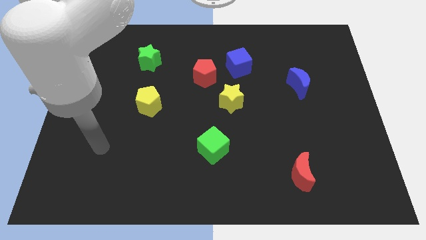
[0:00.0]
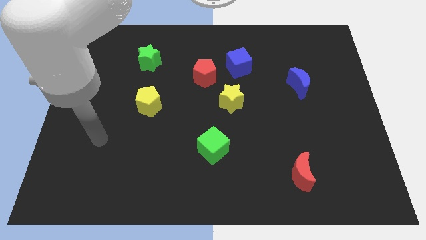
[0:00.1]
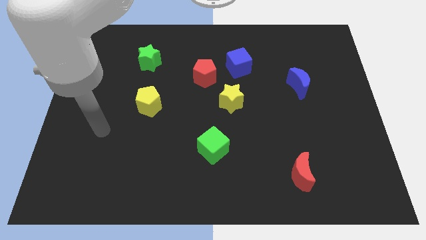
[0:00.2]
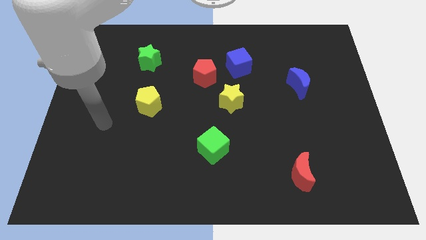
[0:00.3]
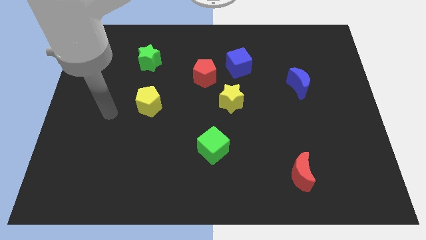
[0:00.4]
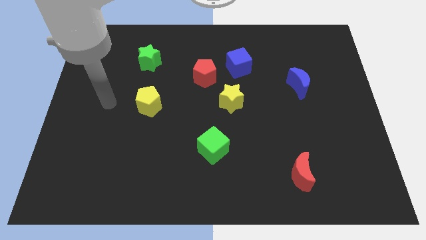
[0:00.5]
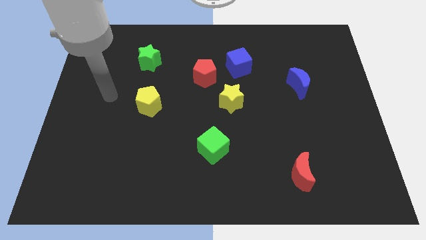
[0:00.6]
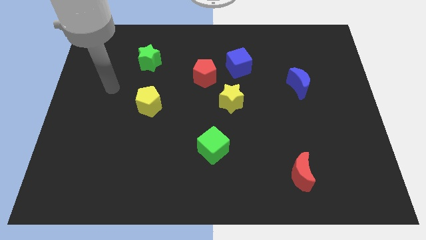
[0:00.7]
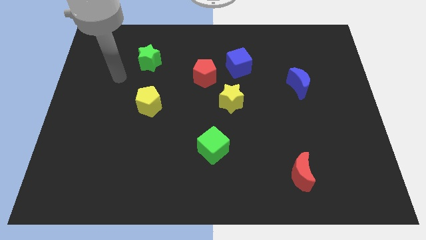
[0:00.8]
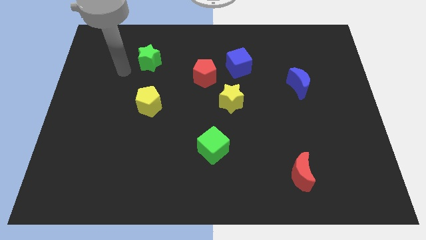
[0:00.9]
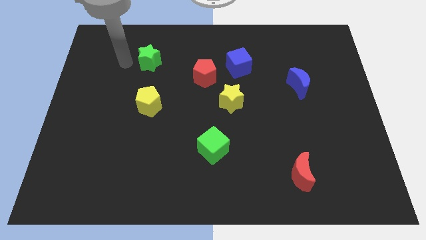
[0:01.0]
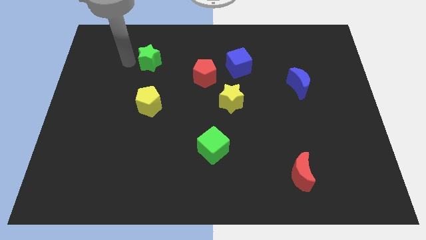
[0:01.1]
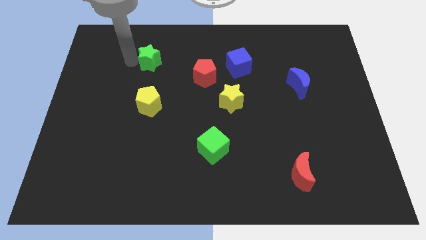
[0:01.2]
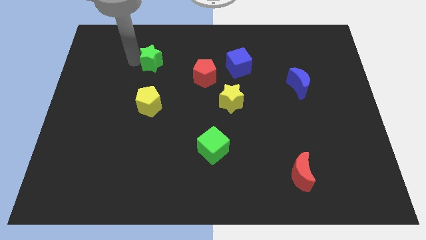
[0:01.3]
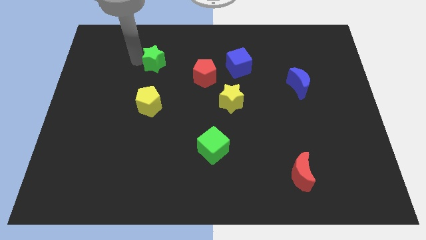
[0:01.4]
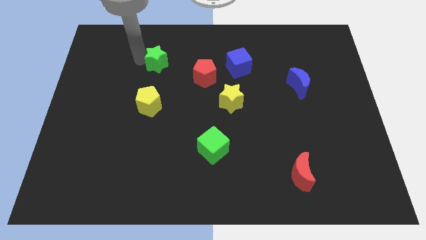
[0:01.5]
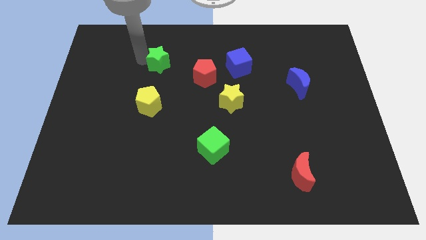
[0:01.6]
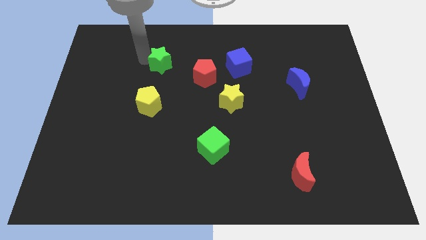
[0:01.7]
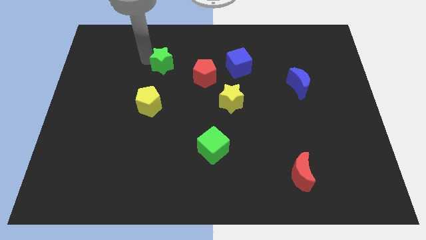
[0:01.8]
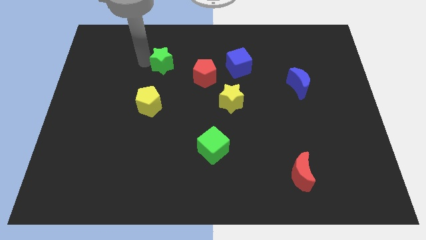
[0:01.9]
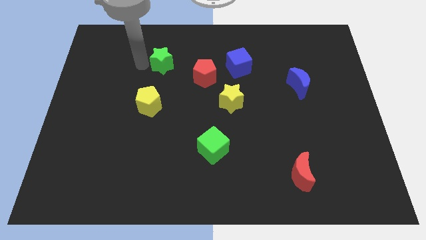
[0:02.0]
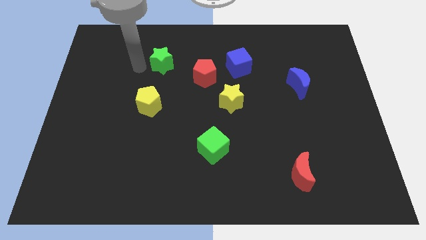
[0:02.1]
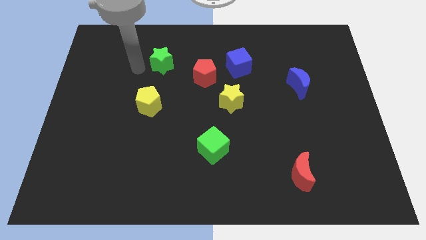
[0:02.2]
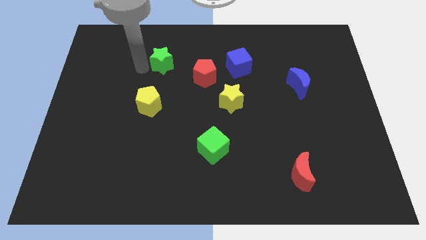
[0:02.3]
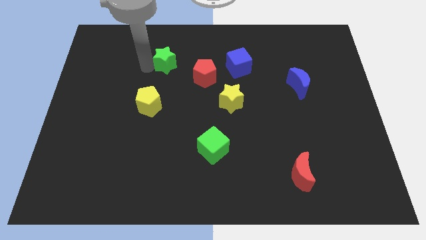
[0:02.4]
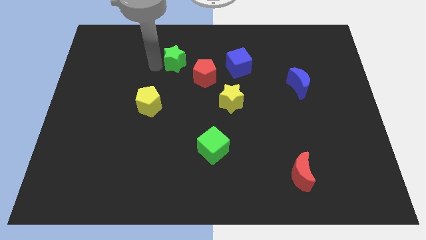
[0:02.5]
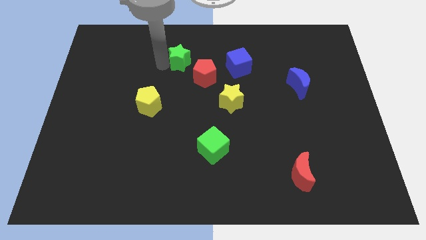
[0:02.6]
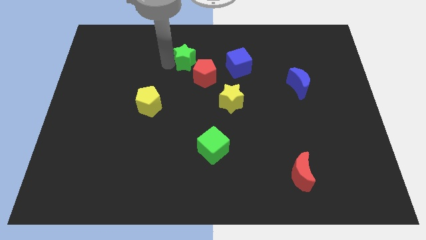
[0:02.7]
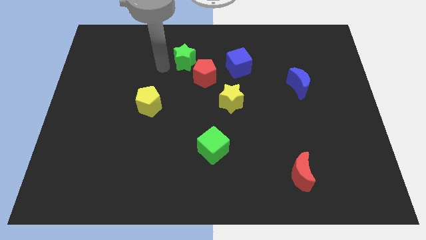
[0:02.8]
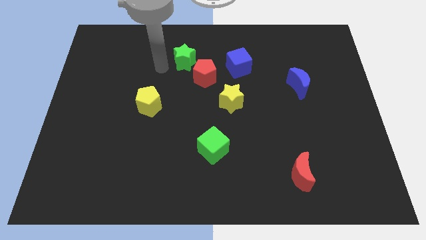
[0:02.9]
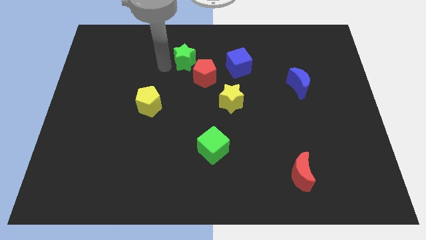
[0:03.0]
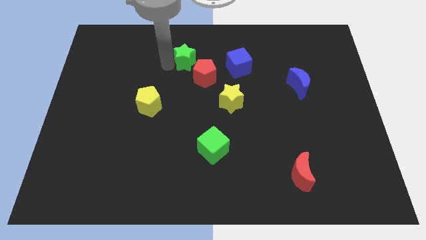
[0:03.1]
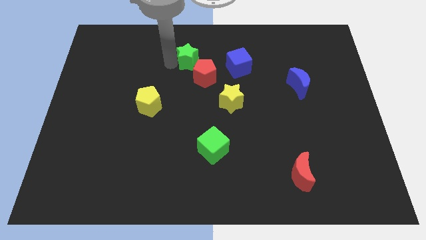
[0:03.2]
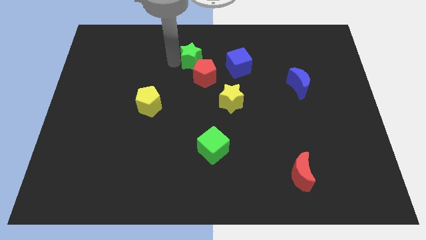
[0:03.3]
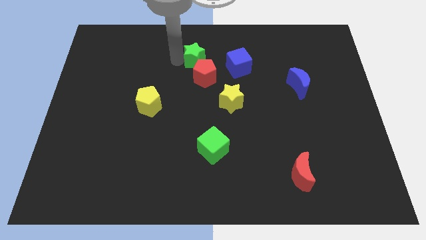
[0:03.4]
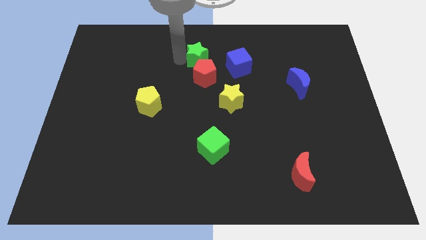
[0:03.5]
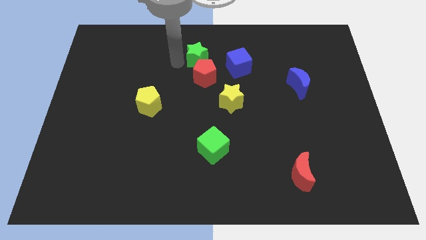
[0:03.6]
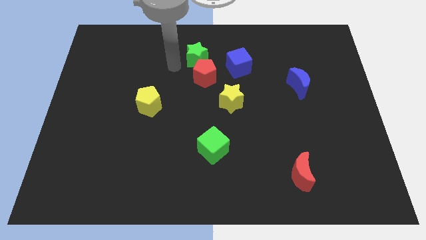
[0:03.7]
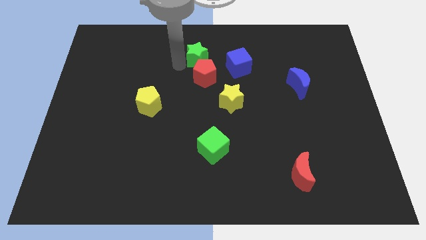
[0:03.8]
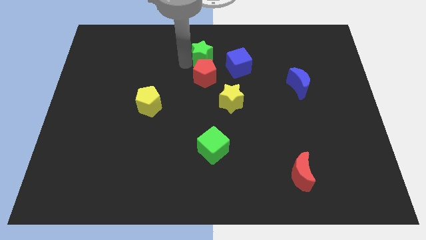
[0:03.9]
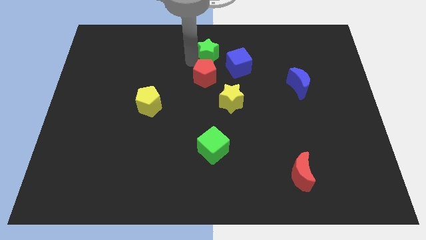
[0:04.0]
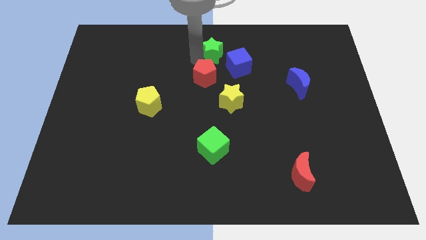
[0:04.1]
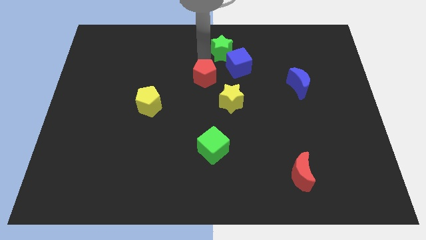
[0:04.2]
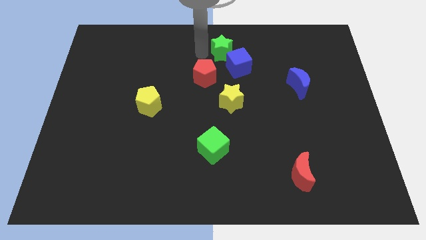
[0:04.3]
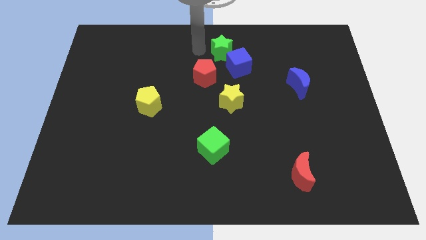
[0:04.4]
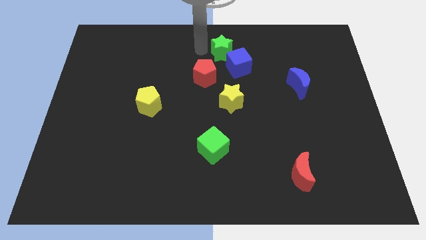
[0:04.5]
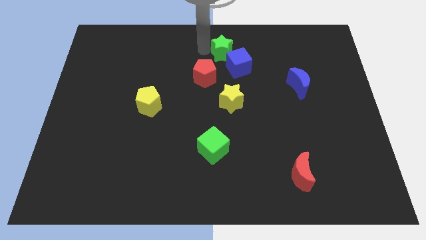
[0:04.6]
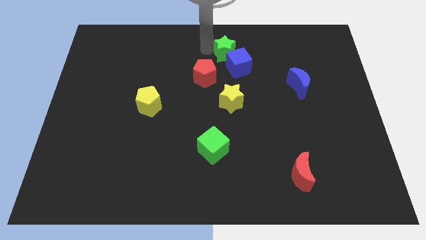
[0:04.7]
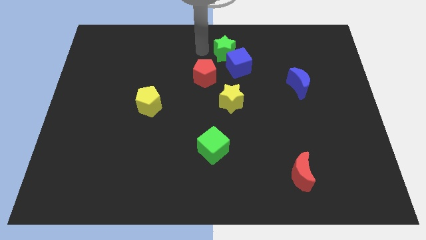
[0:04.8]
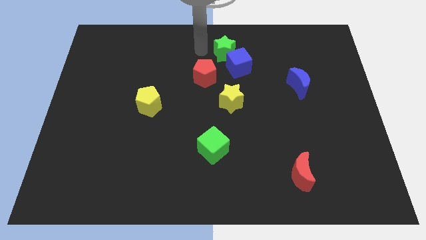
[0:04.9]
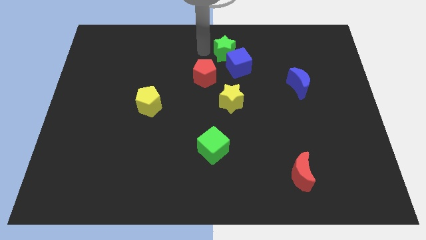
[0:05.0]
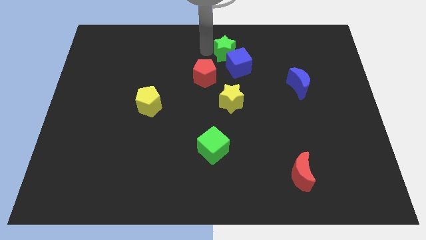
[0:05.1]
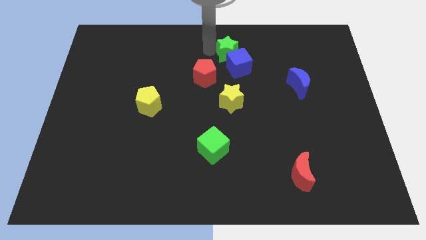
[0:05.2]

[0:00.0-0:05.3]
slide the green star to the right

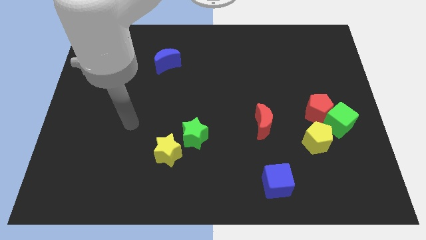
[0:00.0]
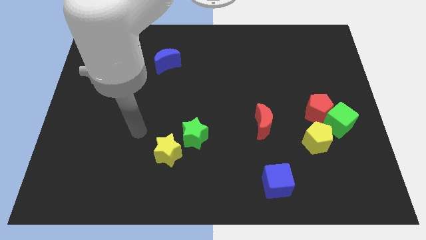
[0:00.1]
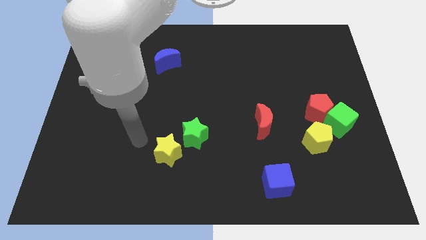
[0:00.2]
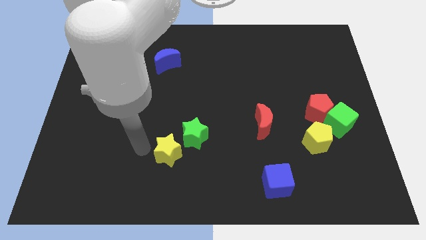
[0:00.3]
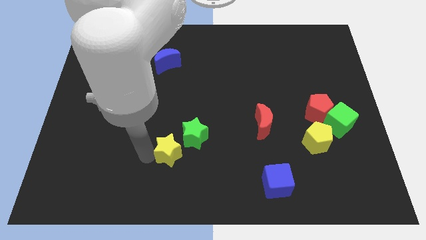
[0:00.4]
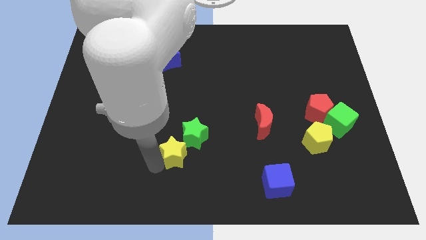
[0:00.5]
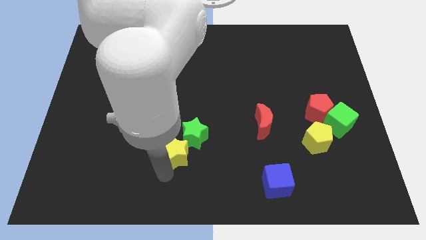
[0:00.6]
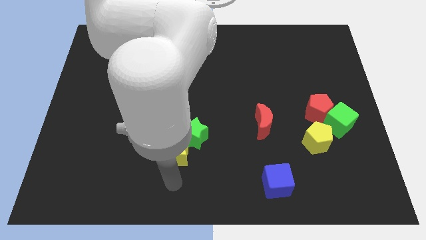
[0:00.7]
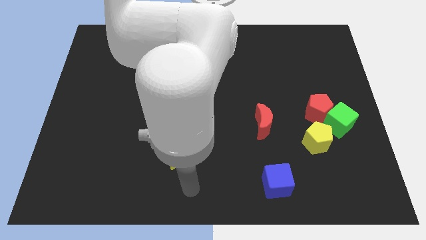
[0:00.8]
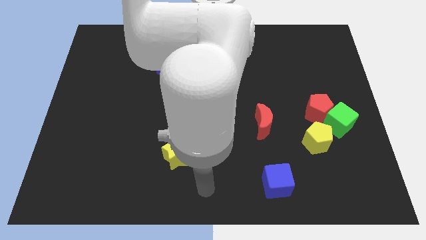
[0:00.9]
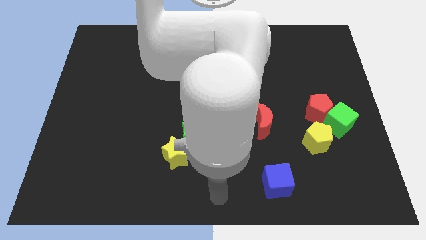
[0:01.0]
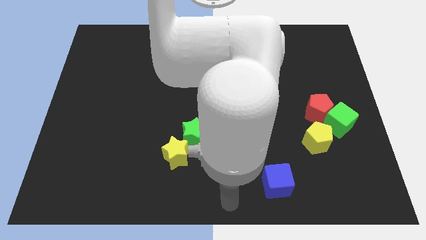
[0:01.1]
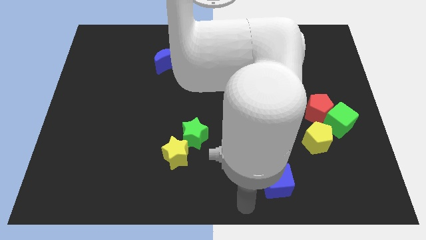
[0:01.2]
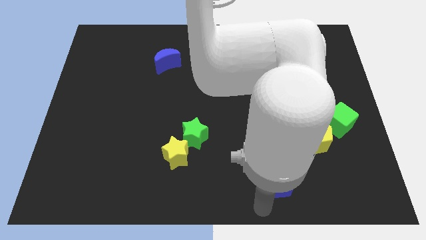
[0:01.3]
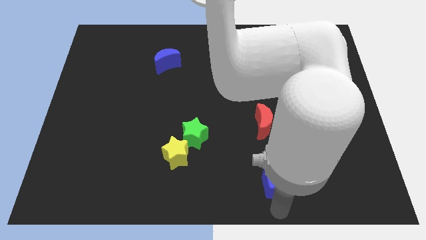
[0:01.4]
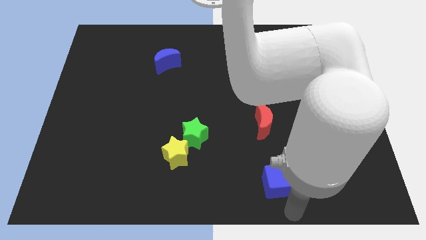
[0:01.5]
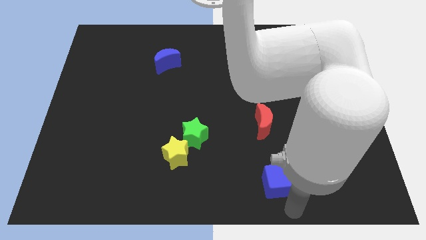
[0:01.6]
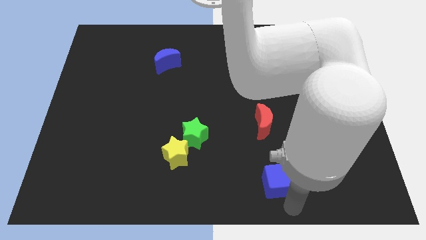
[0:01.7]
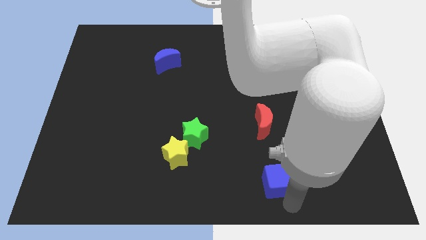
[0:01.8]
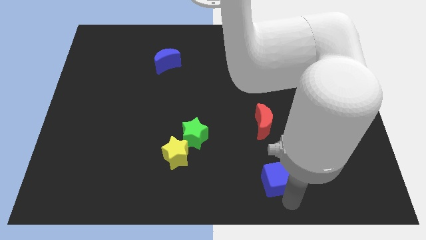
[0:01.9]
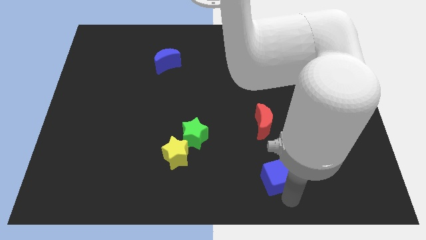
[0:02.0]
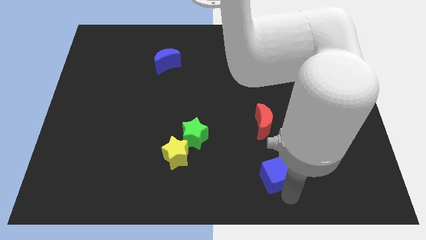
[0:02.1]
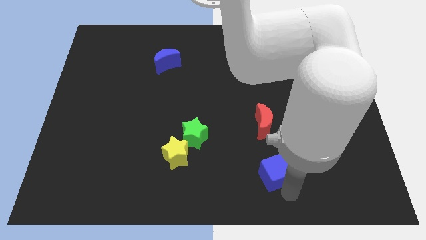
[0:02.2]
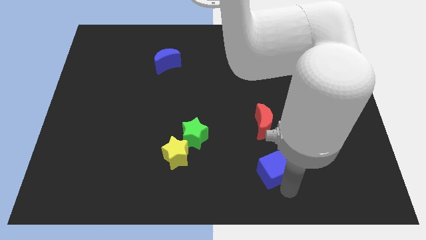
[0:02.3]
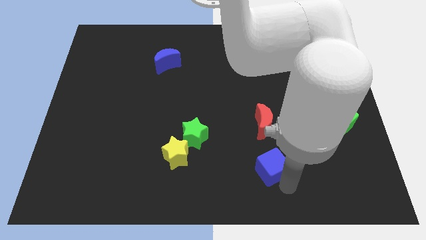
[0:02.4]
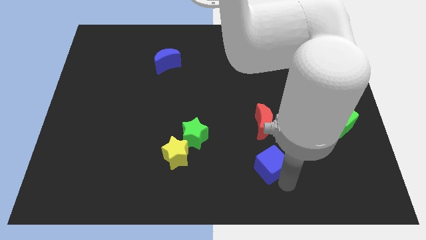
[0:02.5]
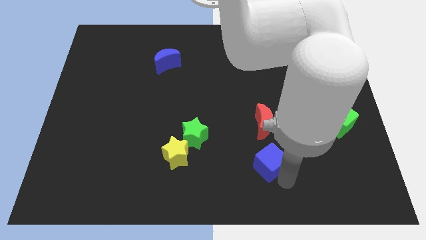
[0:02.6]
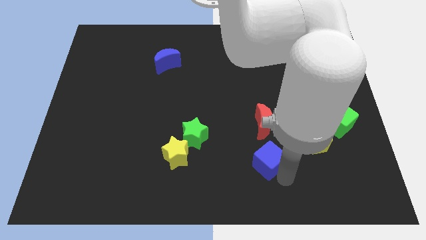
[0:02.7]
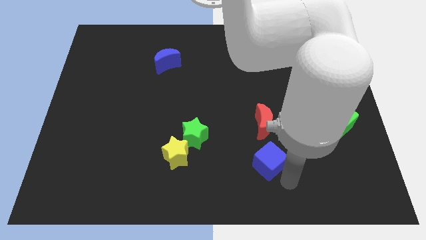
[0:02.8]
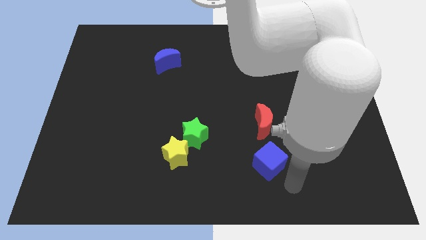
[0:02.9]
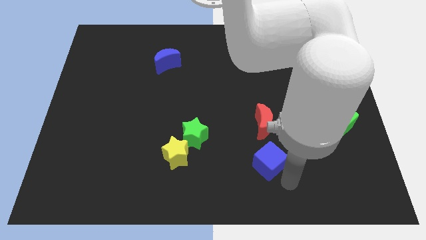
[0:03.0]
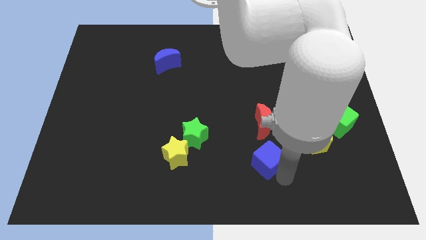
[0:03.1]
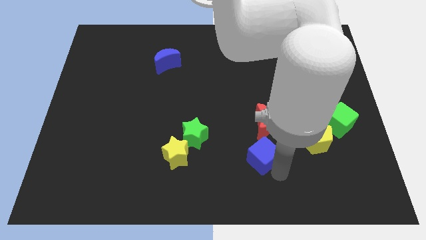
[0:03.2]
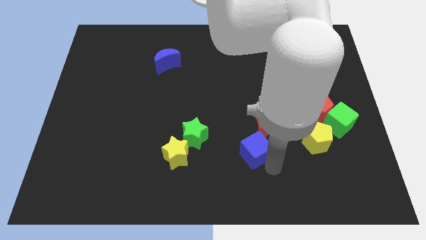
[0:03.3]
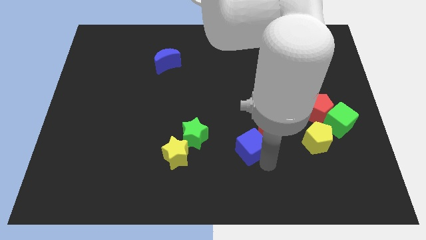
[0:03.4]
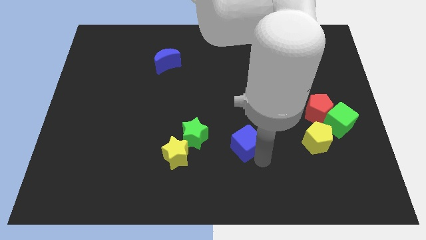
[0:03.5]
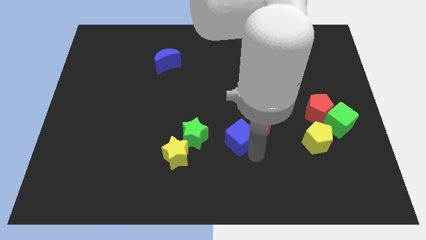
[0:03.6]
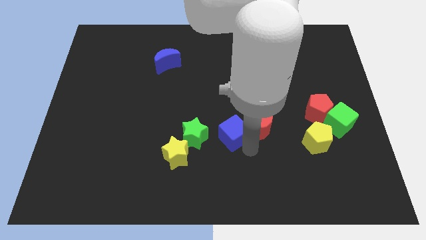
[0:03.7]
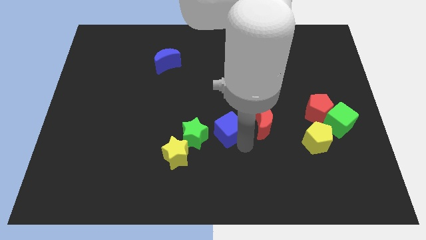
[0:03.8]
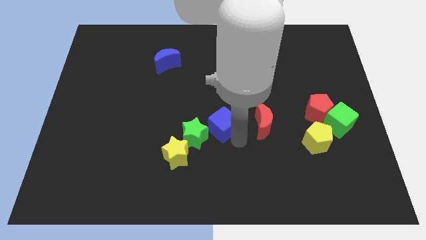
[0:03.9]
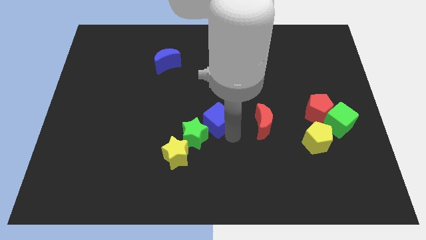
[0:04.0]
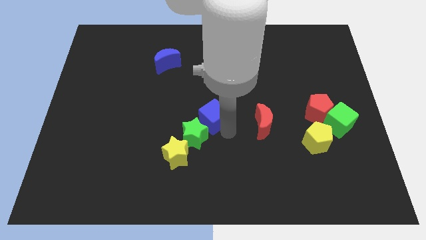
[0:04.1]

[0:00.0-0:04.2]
move the blue cube upwards and left diagonally
